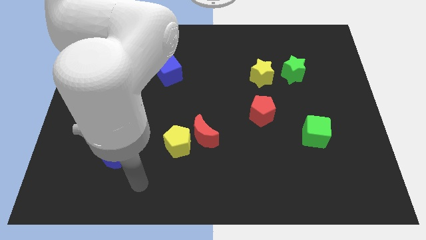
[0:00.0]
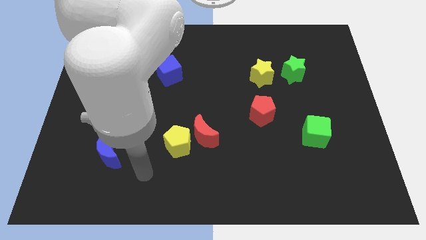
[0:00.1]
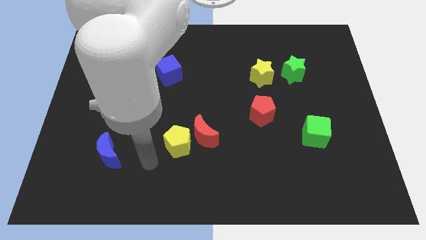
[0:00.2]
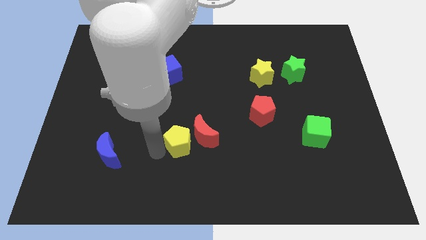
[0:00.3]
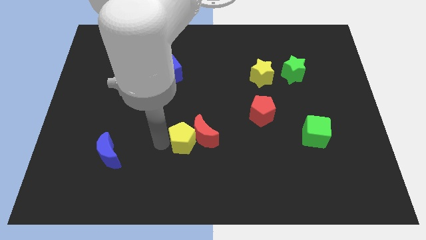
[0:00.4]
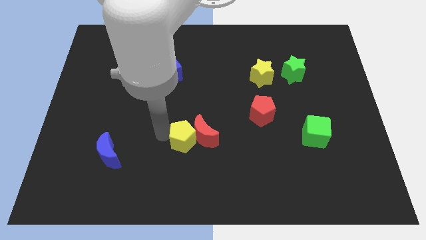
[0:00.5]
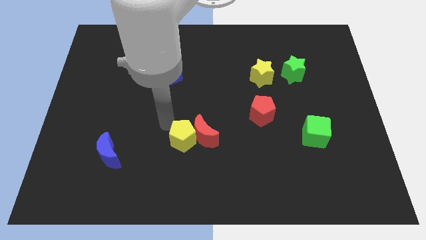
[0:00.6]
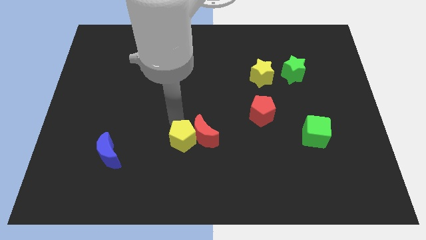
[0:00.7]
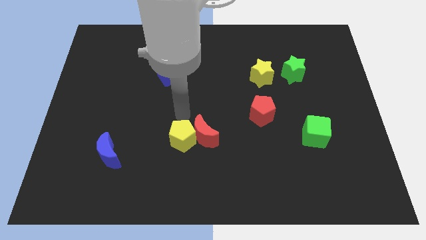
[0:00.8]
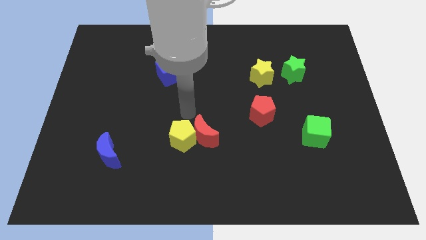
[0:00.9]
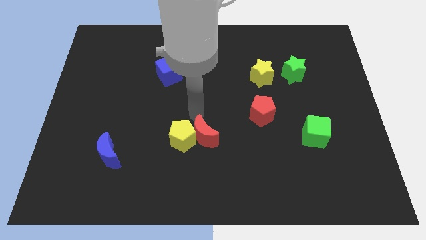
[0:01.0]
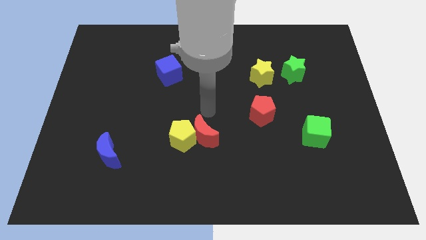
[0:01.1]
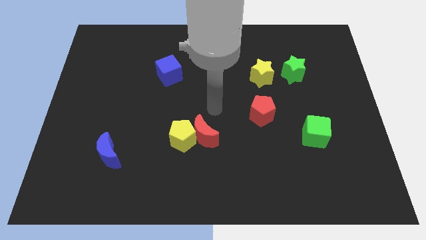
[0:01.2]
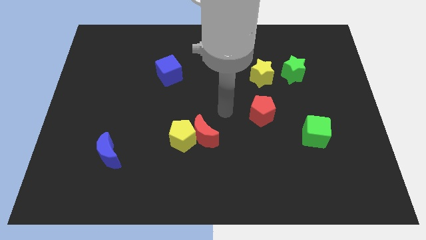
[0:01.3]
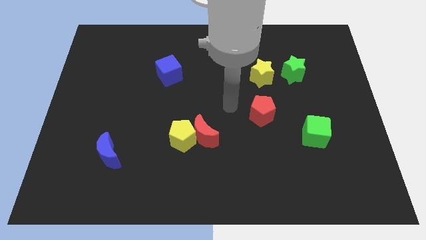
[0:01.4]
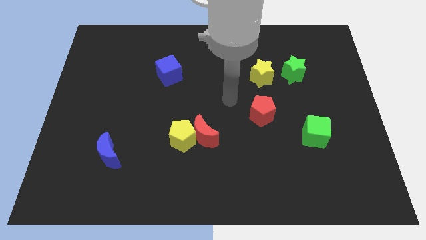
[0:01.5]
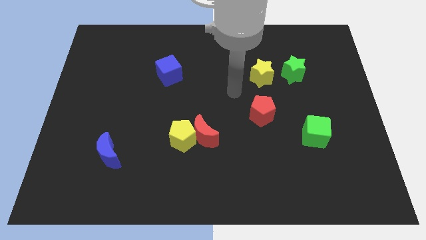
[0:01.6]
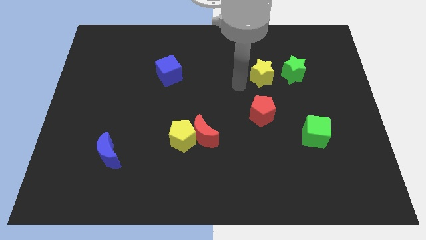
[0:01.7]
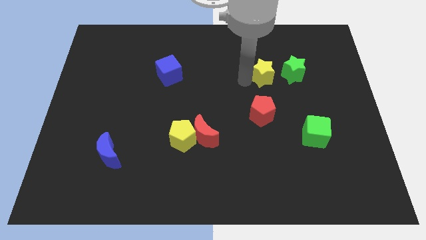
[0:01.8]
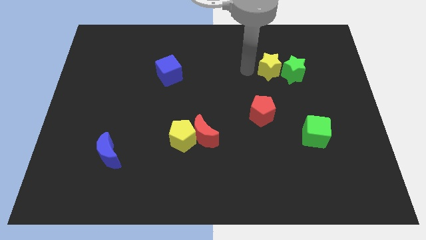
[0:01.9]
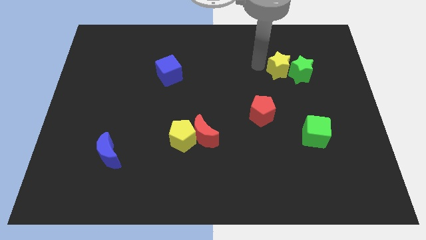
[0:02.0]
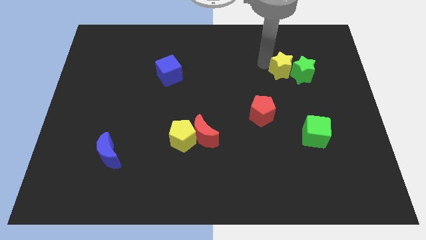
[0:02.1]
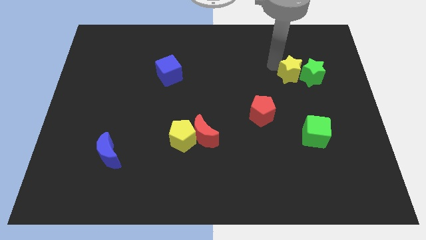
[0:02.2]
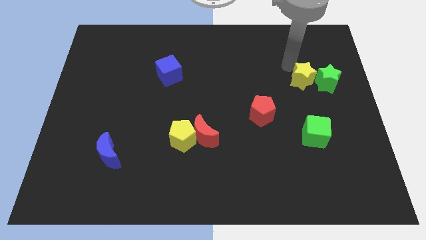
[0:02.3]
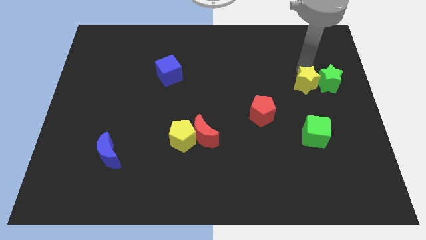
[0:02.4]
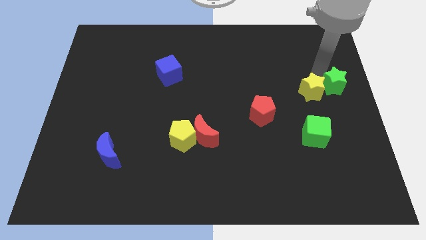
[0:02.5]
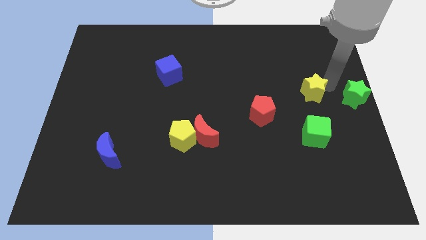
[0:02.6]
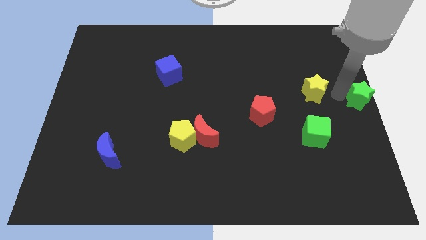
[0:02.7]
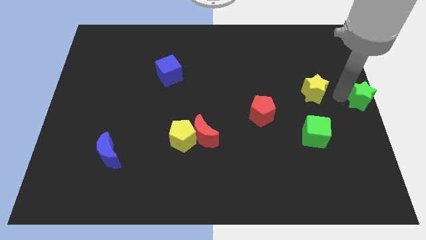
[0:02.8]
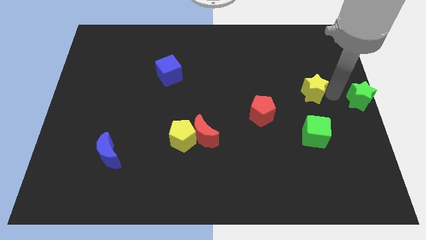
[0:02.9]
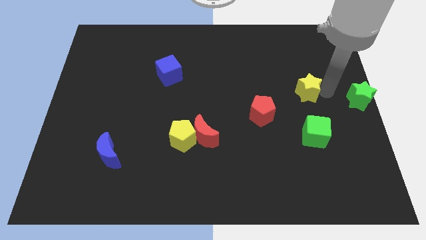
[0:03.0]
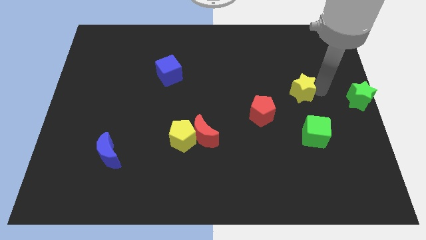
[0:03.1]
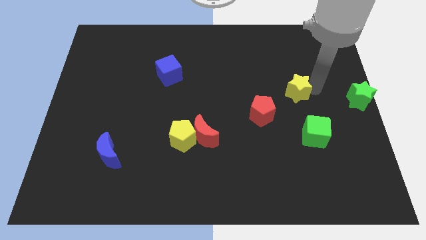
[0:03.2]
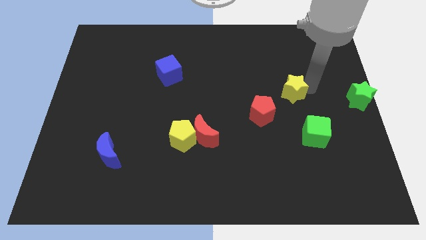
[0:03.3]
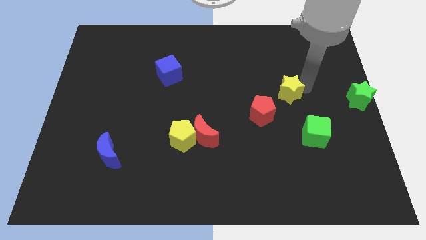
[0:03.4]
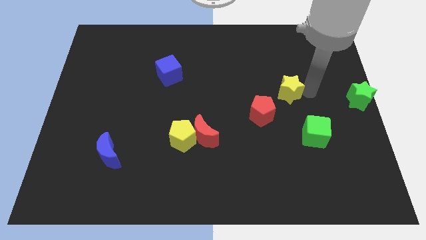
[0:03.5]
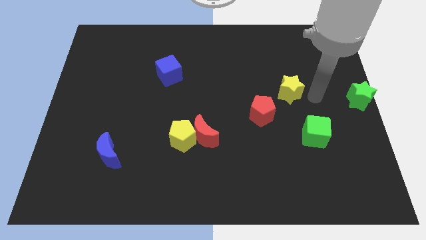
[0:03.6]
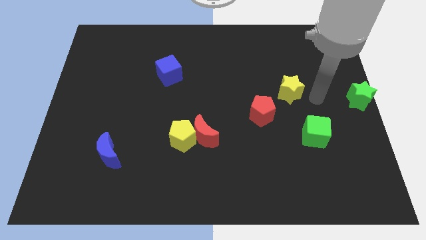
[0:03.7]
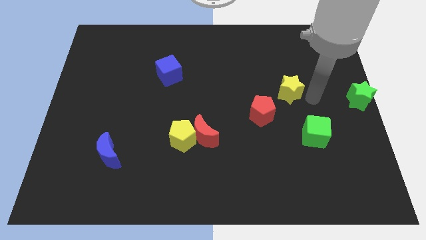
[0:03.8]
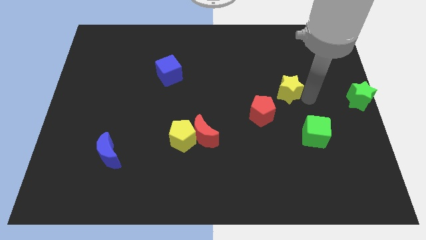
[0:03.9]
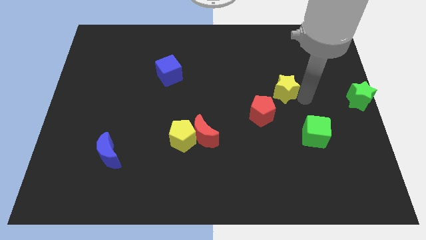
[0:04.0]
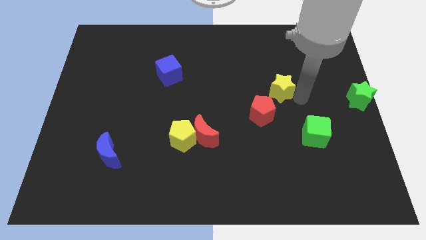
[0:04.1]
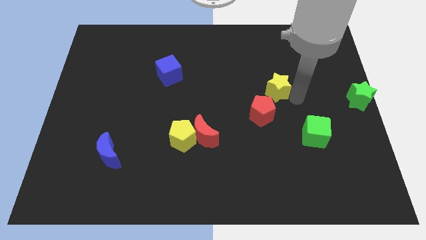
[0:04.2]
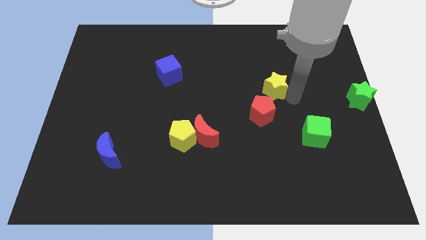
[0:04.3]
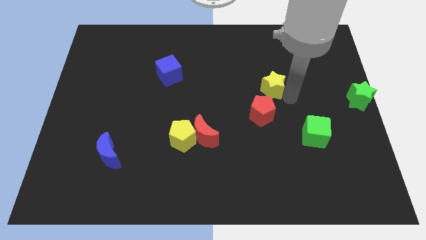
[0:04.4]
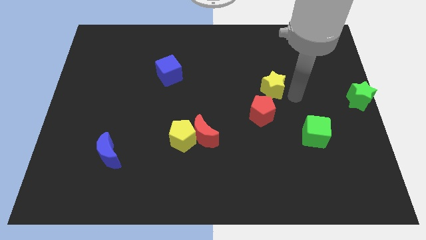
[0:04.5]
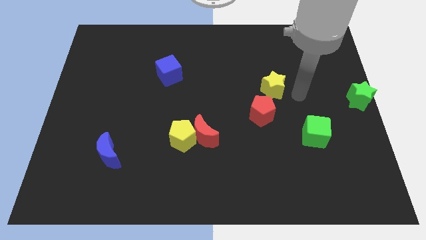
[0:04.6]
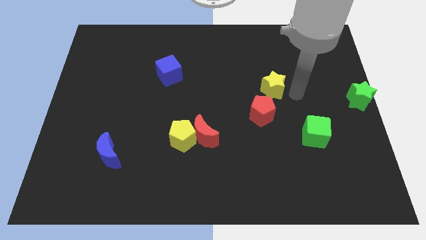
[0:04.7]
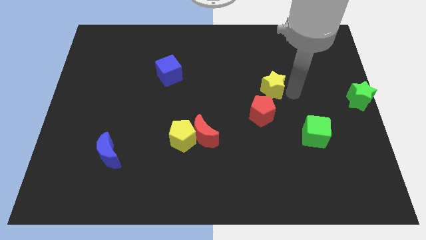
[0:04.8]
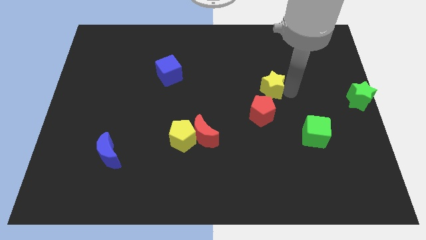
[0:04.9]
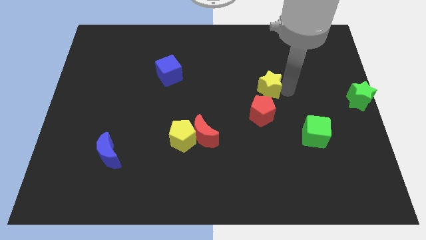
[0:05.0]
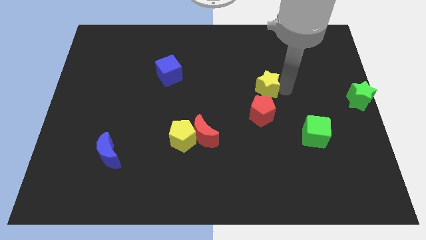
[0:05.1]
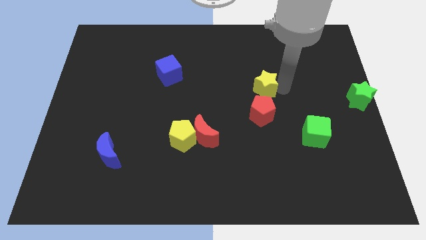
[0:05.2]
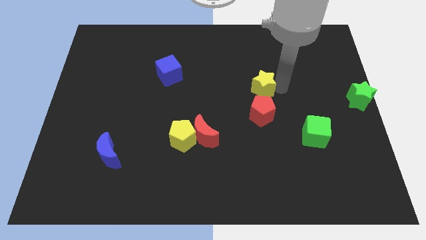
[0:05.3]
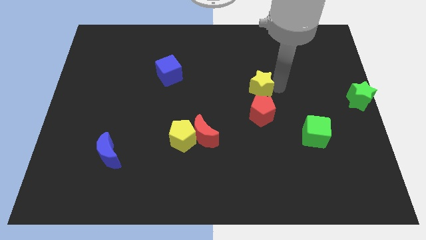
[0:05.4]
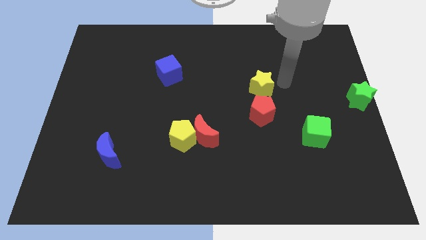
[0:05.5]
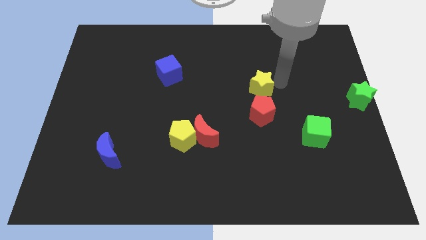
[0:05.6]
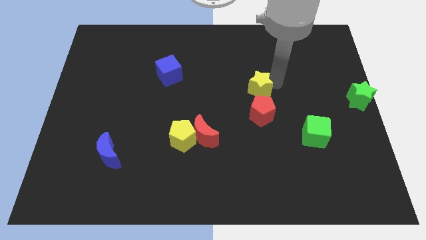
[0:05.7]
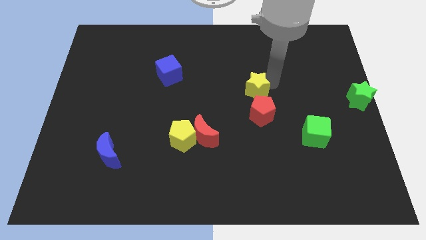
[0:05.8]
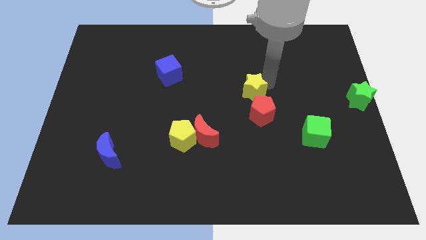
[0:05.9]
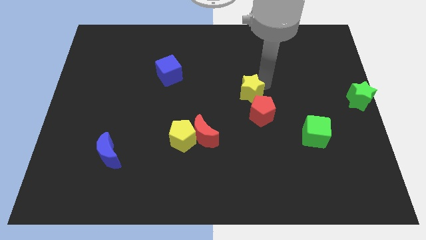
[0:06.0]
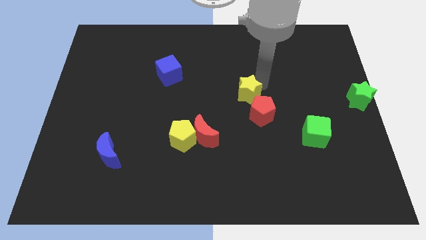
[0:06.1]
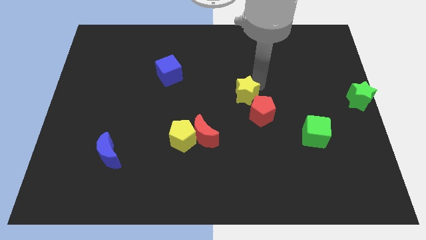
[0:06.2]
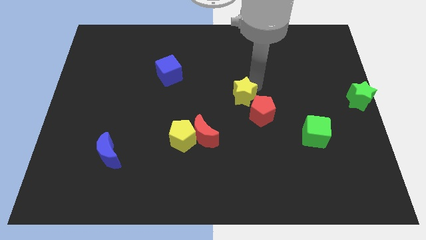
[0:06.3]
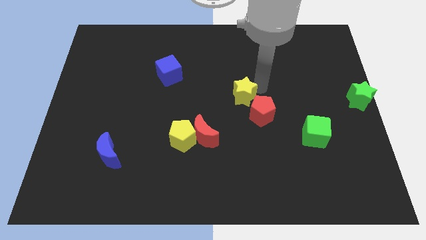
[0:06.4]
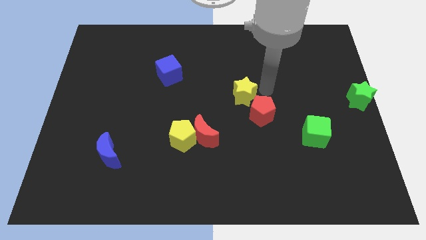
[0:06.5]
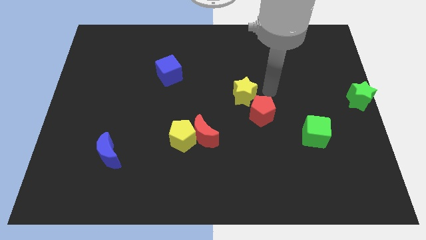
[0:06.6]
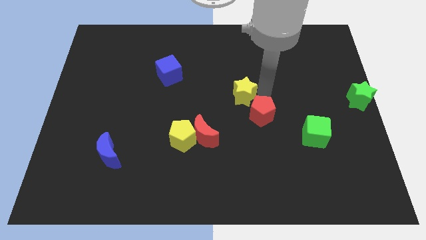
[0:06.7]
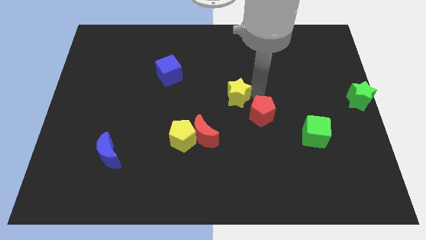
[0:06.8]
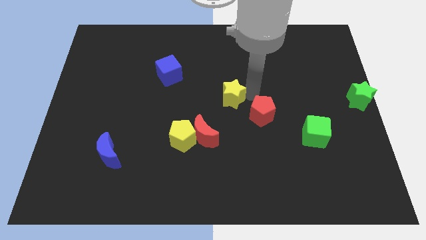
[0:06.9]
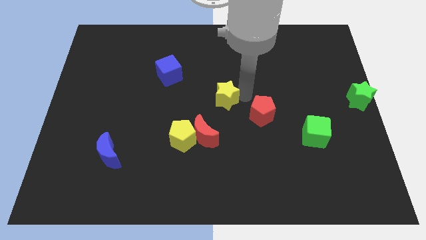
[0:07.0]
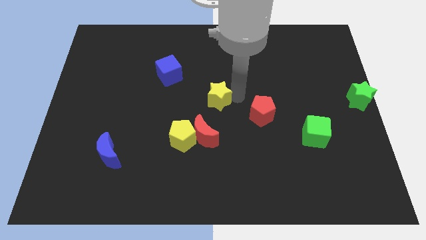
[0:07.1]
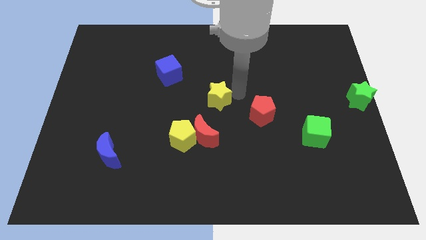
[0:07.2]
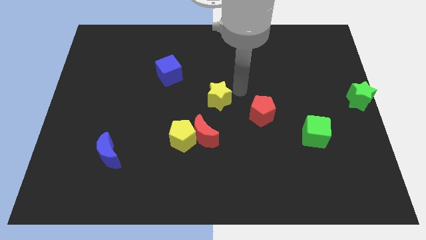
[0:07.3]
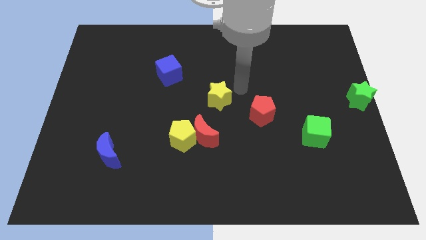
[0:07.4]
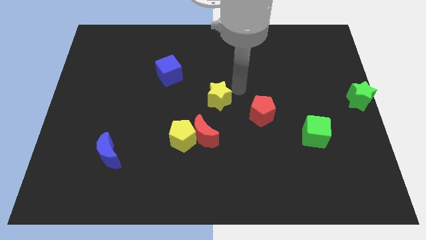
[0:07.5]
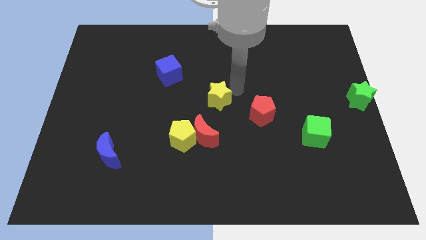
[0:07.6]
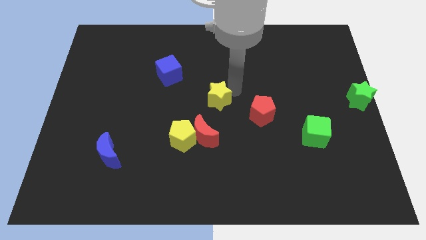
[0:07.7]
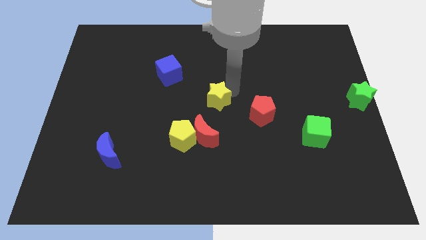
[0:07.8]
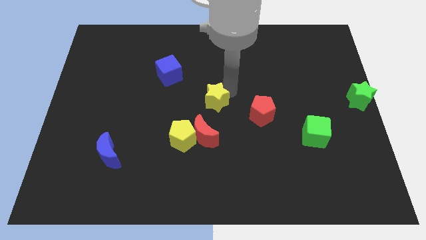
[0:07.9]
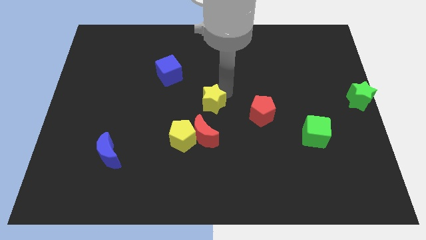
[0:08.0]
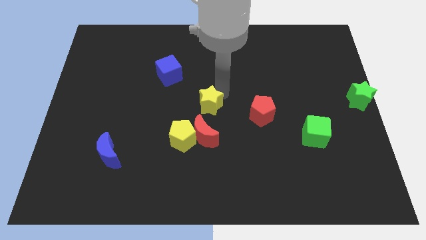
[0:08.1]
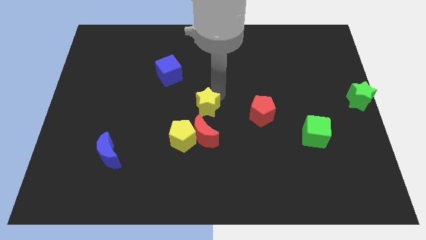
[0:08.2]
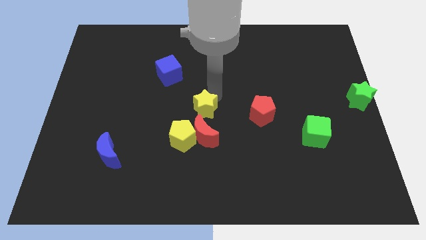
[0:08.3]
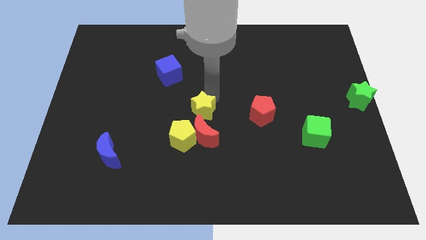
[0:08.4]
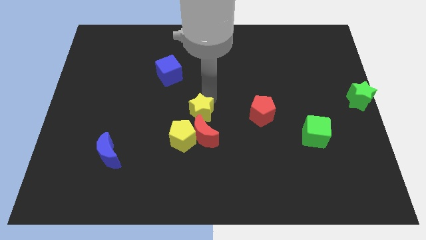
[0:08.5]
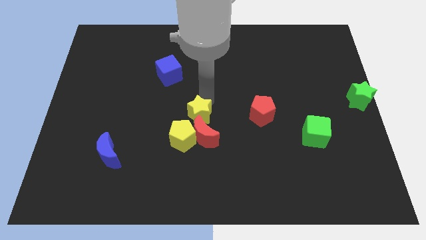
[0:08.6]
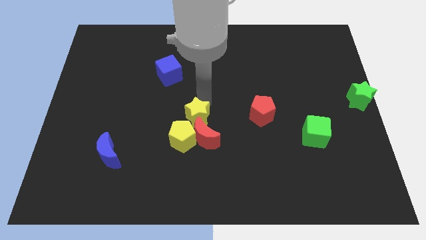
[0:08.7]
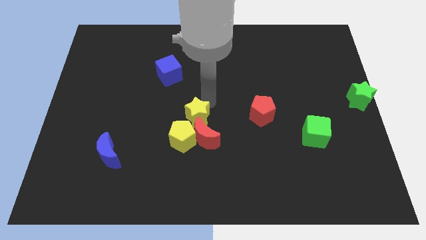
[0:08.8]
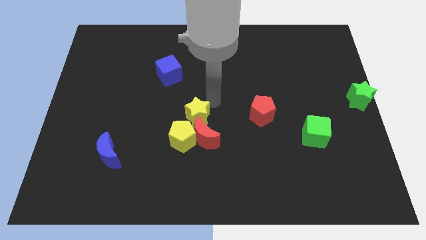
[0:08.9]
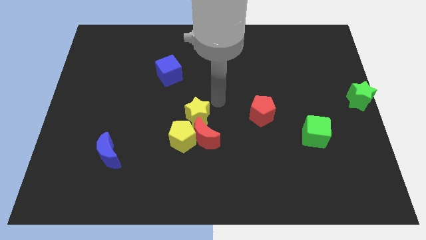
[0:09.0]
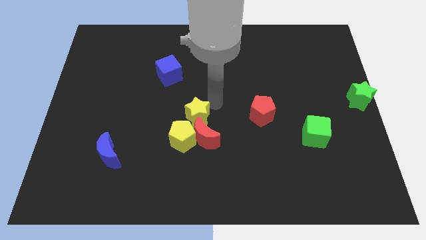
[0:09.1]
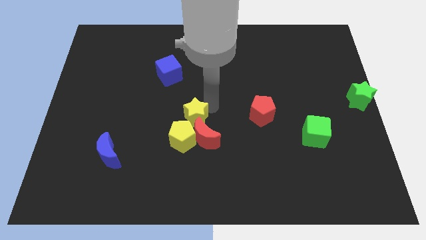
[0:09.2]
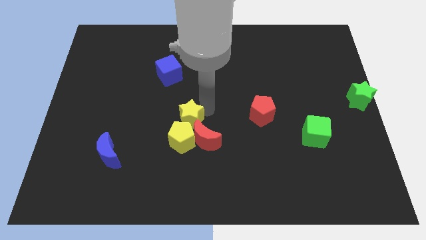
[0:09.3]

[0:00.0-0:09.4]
push the yellow star towards the yellow pentagon
